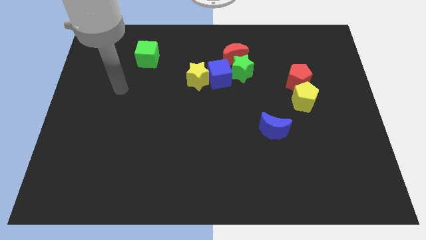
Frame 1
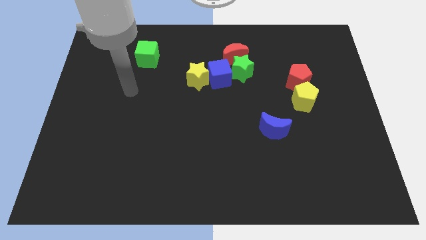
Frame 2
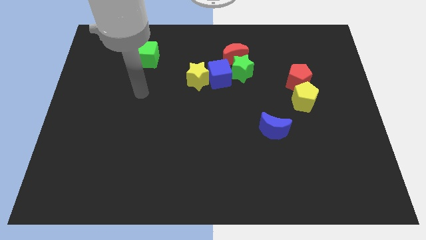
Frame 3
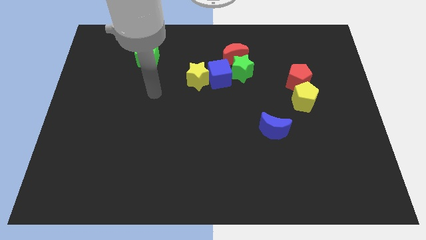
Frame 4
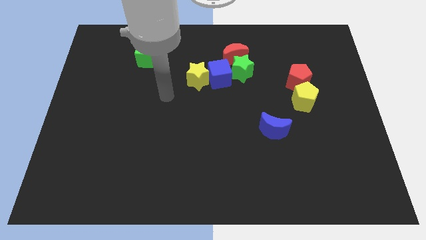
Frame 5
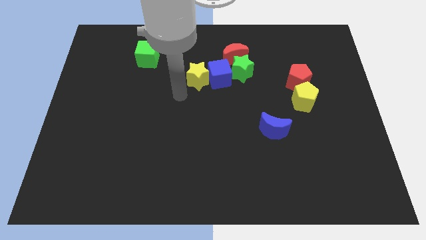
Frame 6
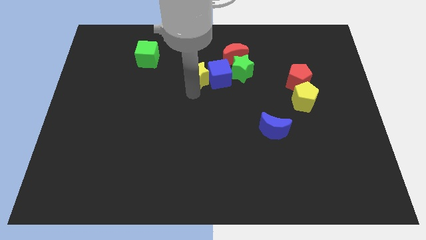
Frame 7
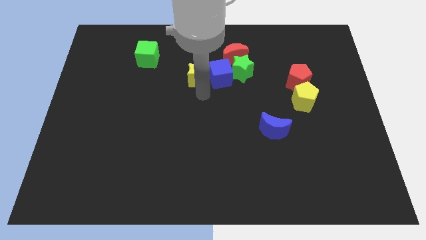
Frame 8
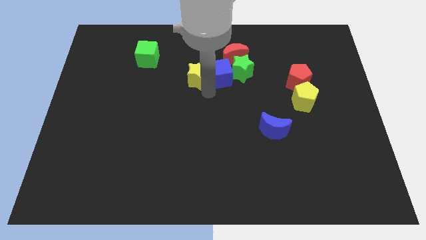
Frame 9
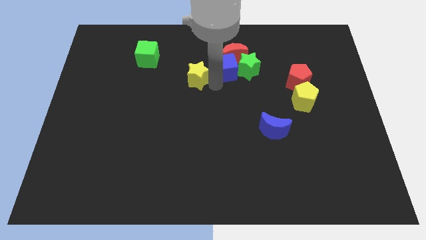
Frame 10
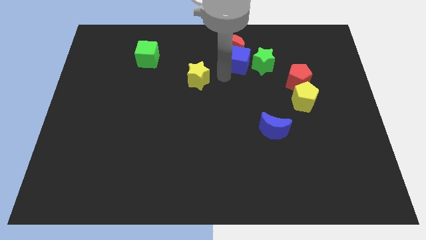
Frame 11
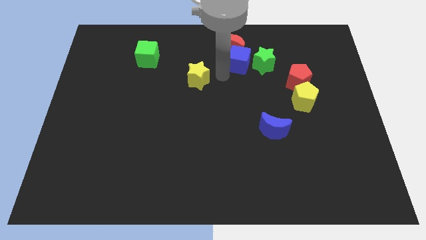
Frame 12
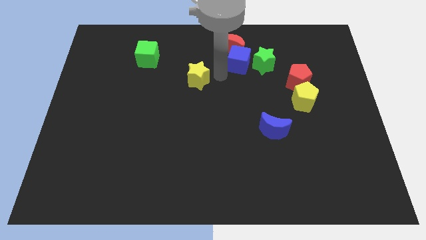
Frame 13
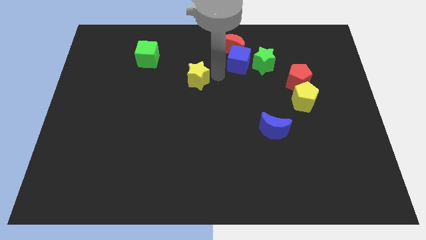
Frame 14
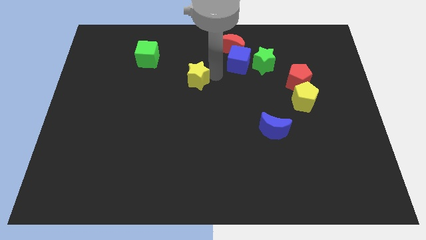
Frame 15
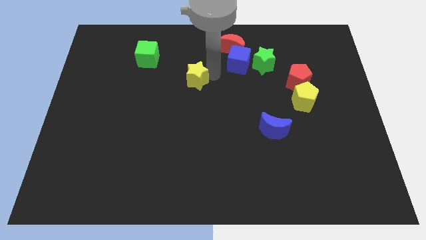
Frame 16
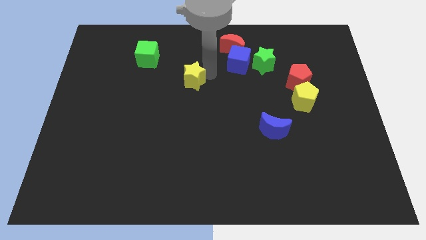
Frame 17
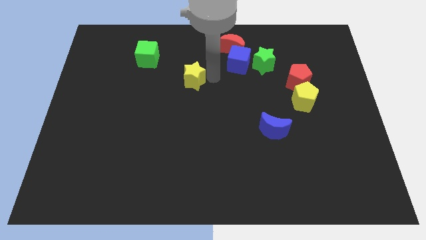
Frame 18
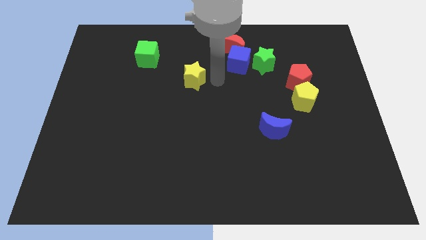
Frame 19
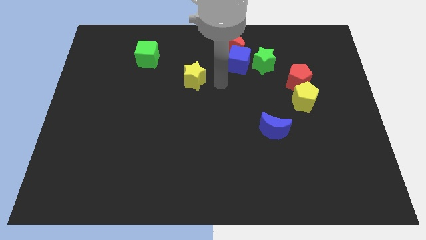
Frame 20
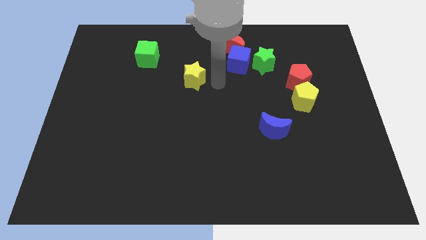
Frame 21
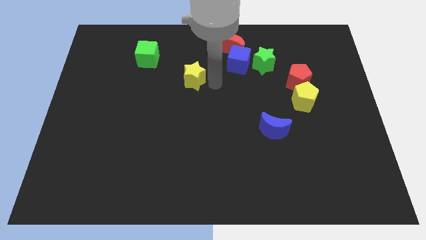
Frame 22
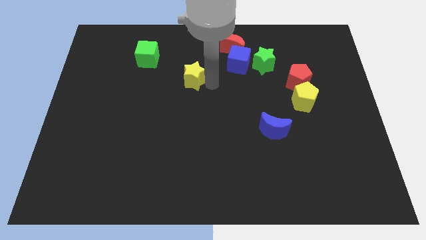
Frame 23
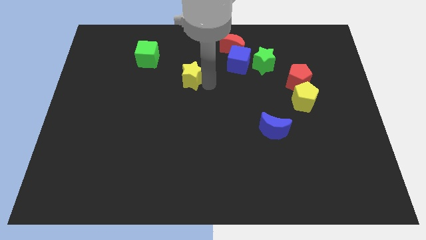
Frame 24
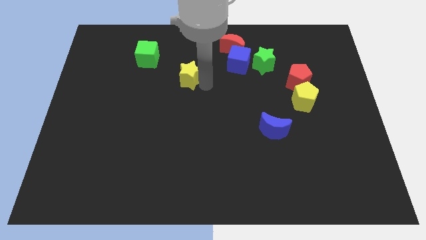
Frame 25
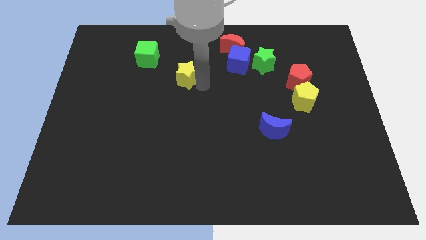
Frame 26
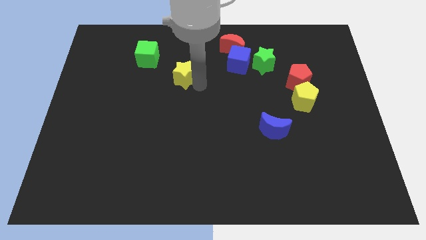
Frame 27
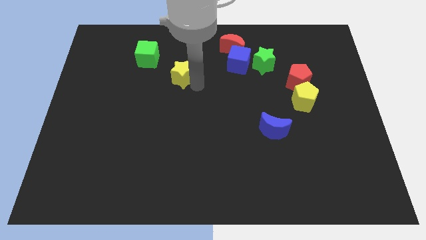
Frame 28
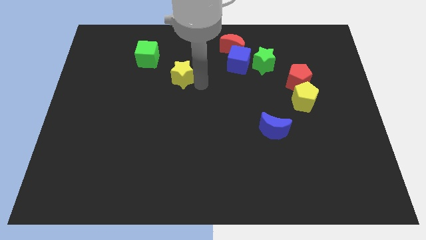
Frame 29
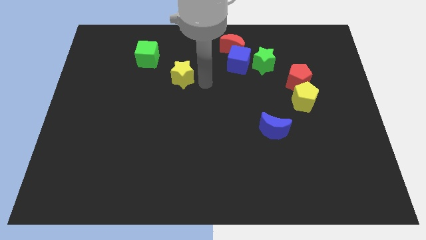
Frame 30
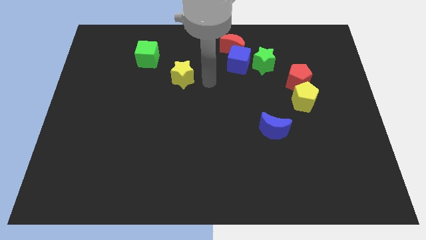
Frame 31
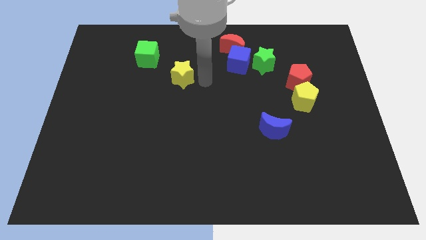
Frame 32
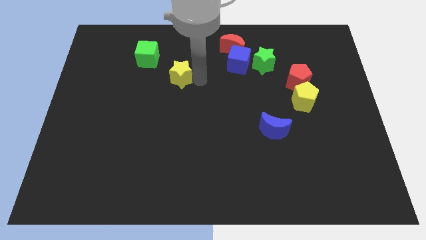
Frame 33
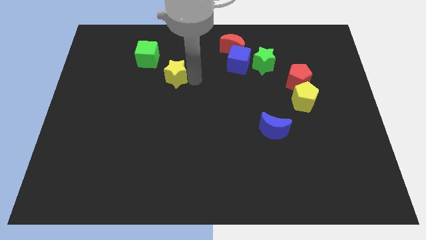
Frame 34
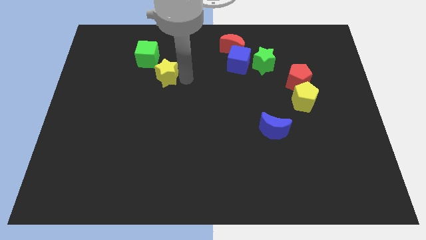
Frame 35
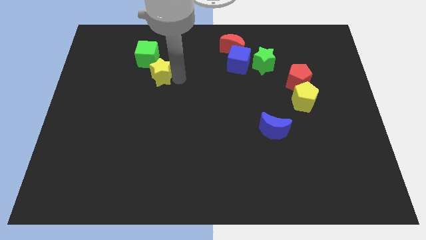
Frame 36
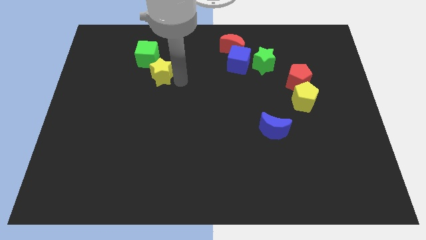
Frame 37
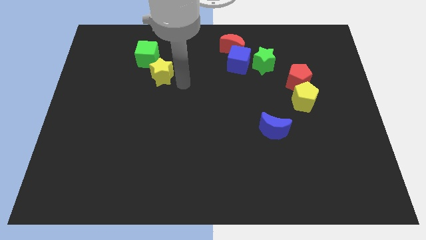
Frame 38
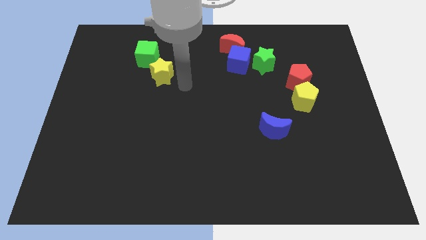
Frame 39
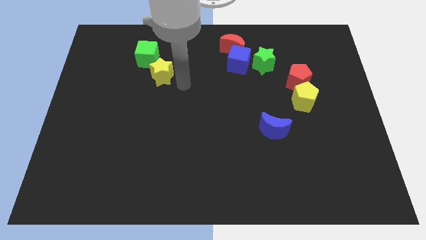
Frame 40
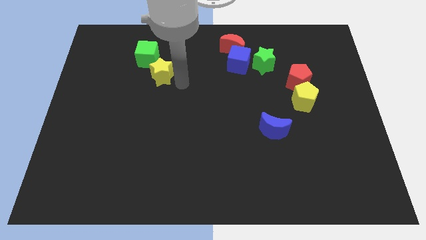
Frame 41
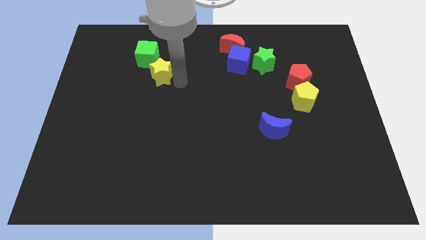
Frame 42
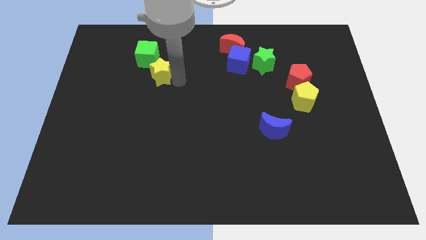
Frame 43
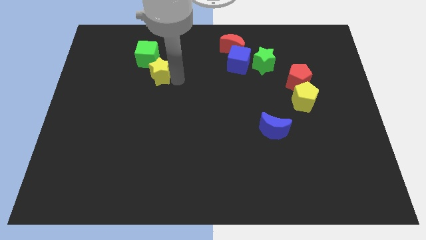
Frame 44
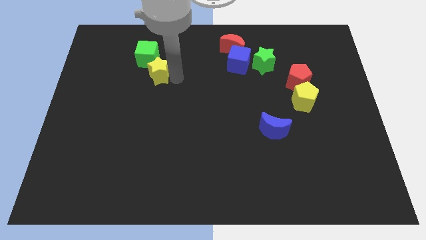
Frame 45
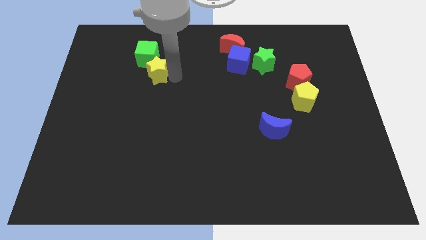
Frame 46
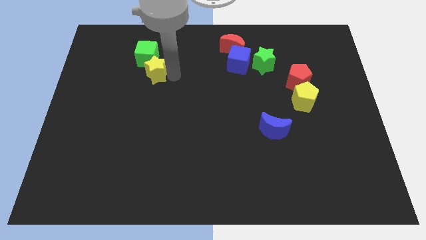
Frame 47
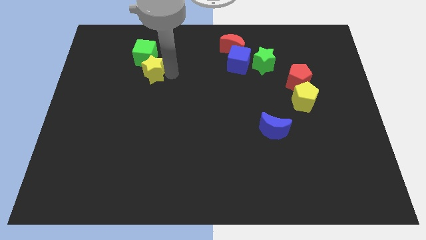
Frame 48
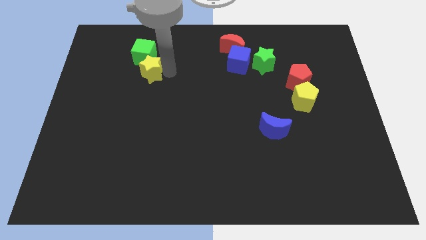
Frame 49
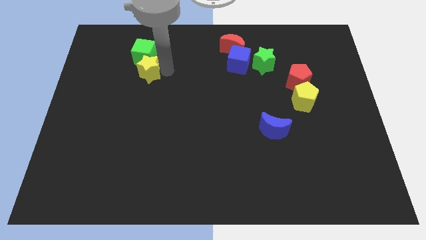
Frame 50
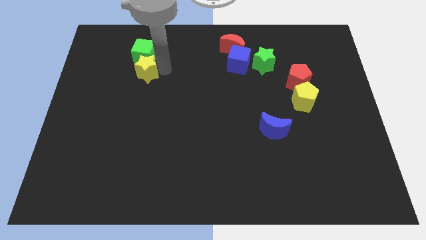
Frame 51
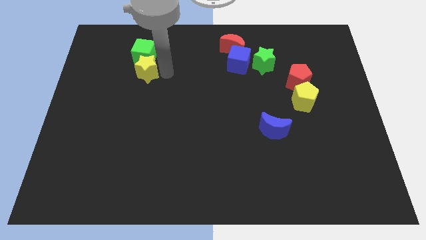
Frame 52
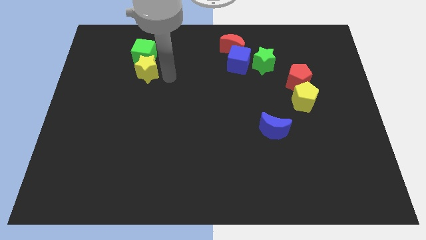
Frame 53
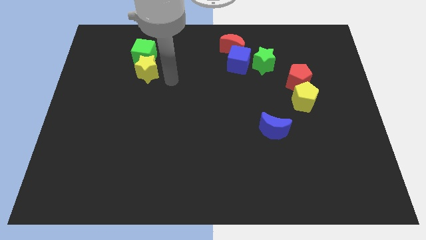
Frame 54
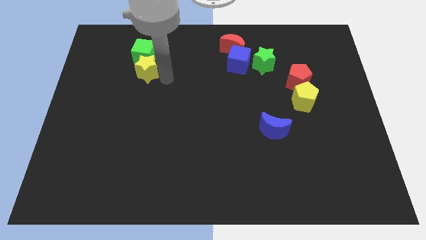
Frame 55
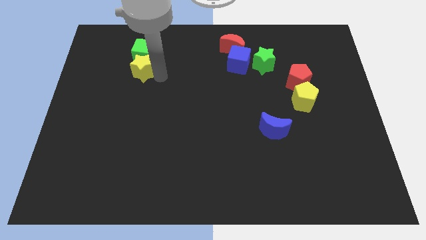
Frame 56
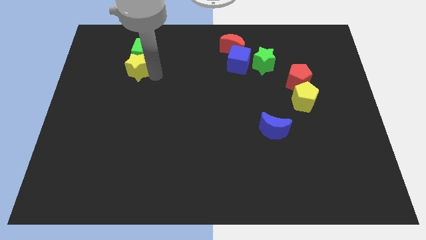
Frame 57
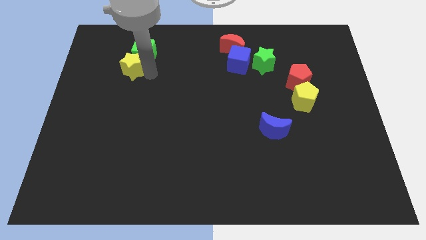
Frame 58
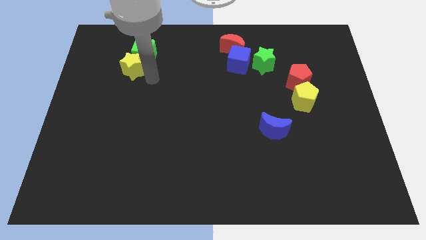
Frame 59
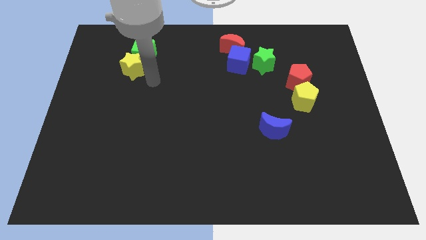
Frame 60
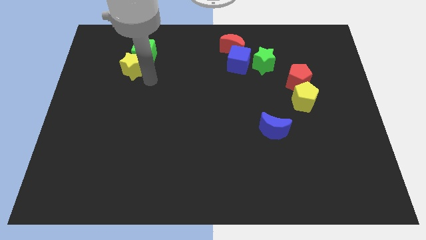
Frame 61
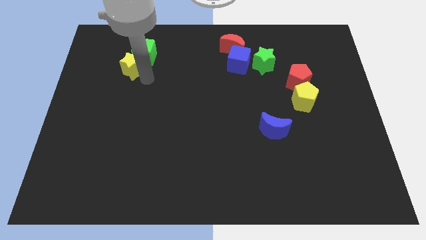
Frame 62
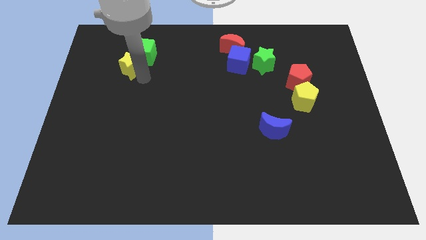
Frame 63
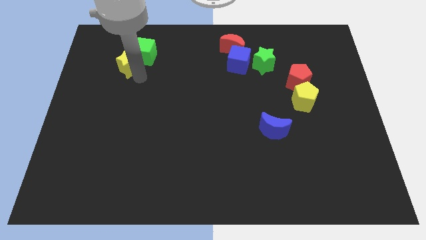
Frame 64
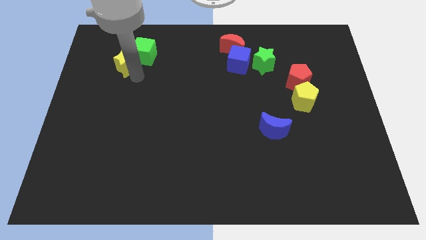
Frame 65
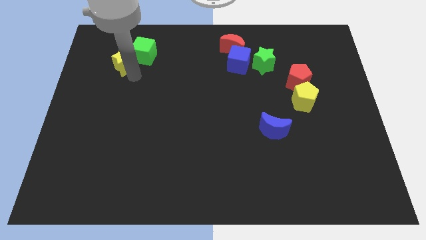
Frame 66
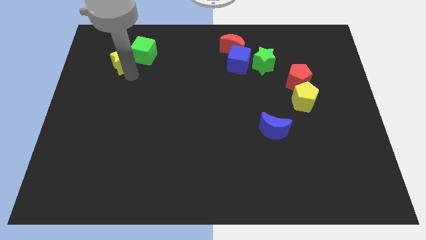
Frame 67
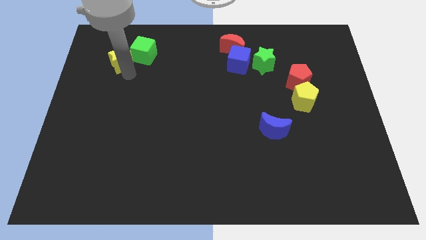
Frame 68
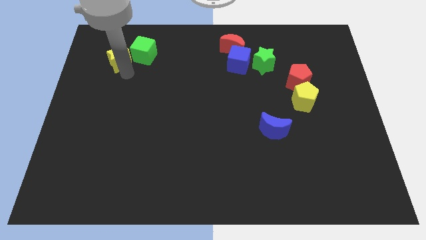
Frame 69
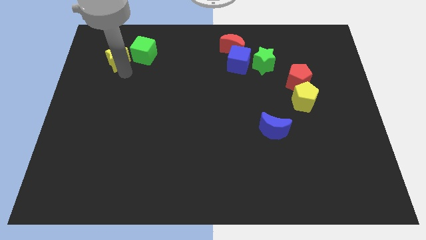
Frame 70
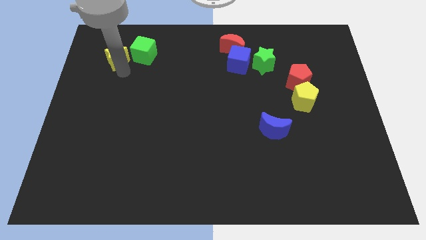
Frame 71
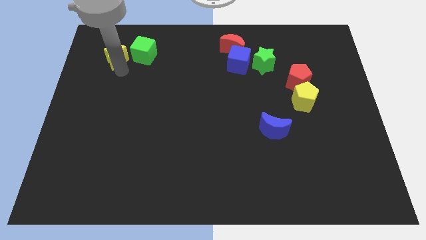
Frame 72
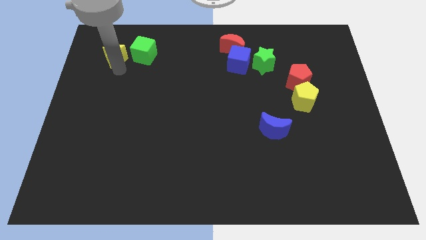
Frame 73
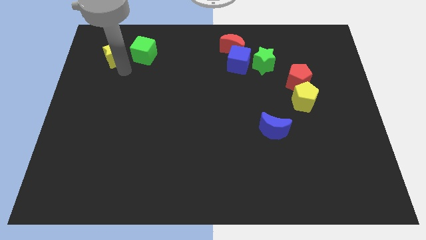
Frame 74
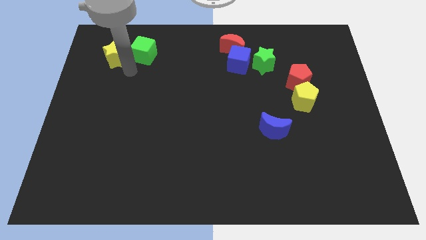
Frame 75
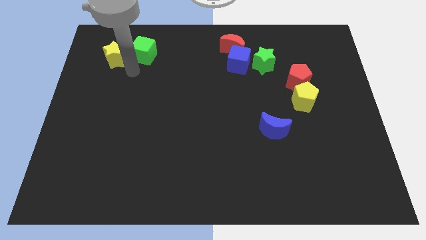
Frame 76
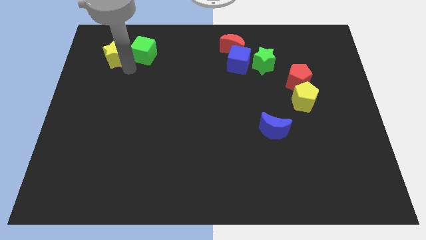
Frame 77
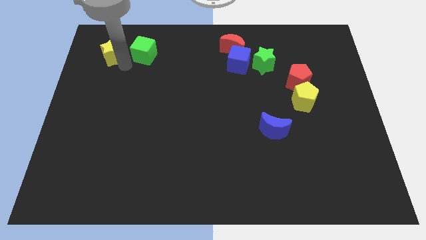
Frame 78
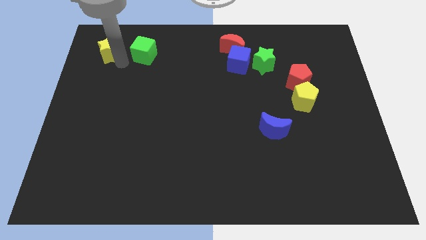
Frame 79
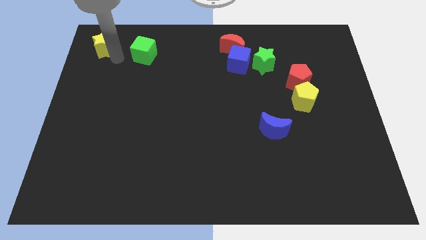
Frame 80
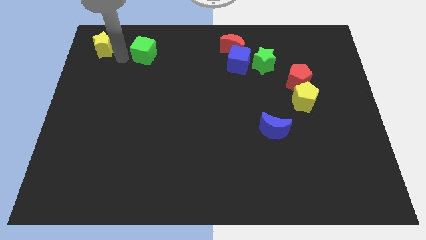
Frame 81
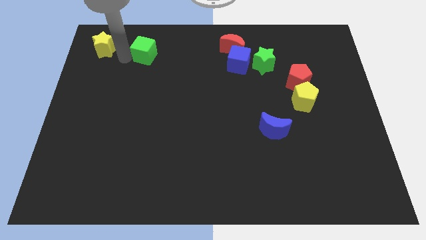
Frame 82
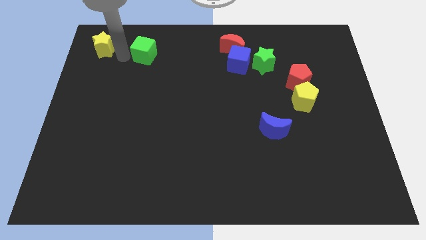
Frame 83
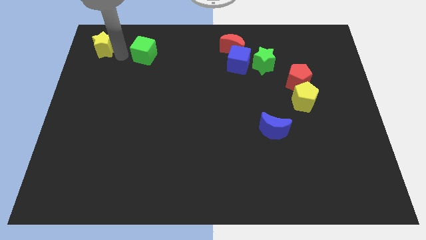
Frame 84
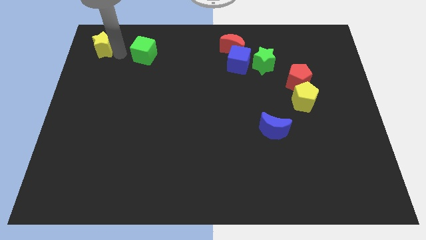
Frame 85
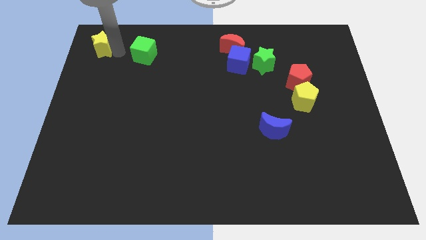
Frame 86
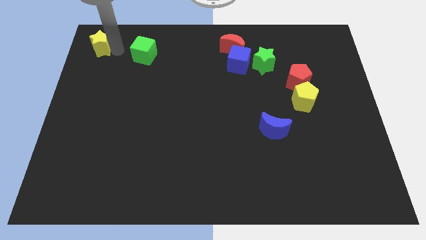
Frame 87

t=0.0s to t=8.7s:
slide the yellow star to the upper left corner
